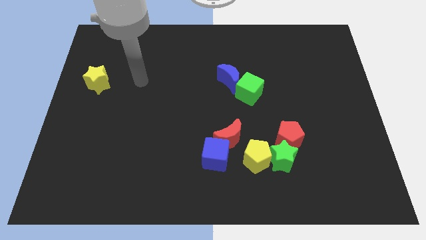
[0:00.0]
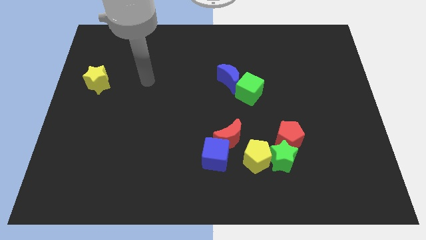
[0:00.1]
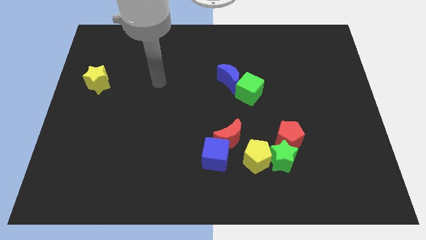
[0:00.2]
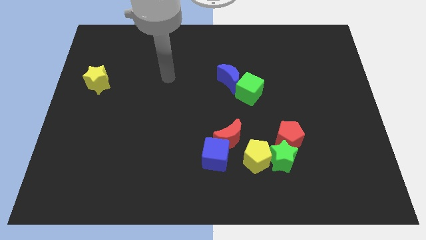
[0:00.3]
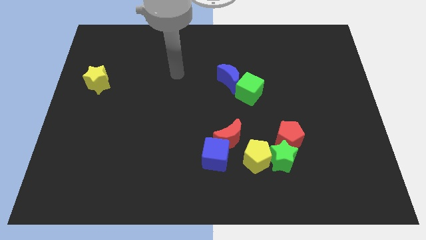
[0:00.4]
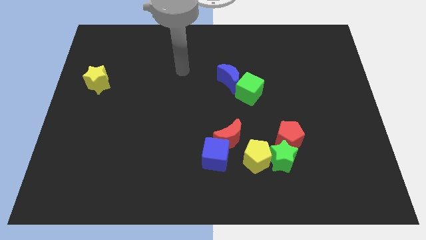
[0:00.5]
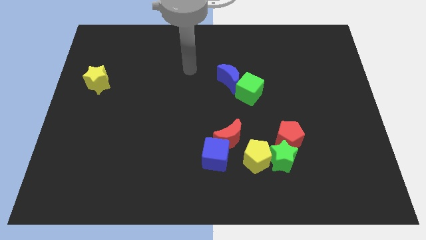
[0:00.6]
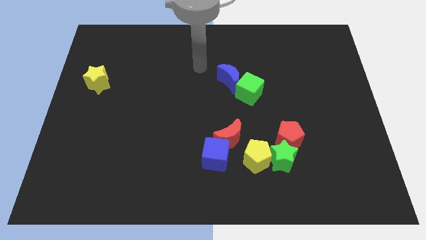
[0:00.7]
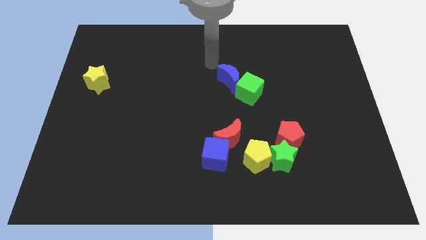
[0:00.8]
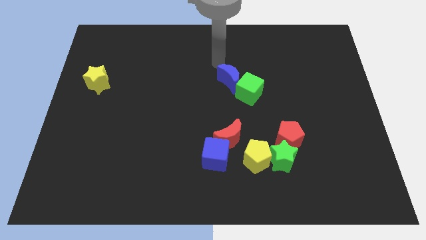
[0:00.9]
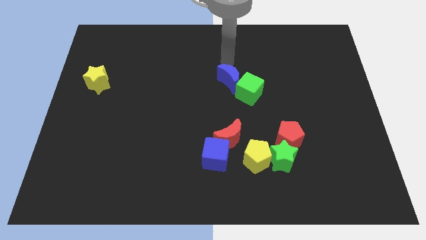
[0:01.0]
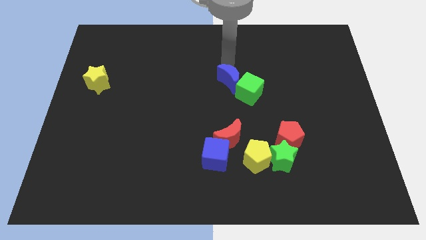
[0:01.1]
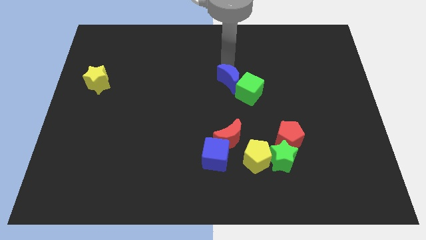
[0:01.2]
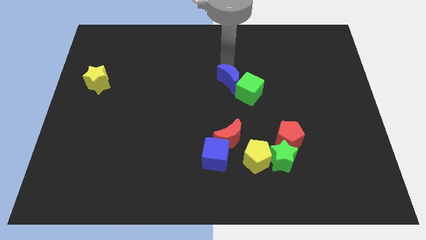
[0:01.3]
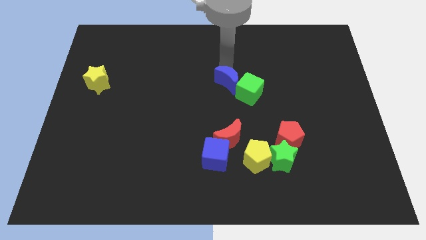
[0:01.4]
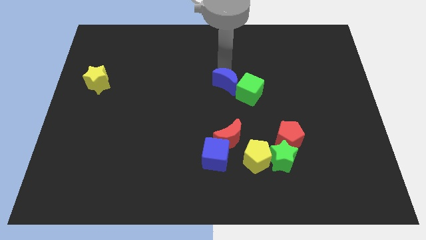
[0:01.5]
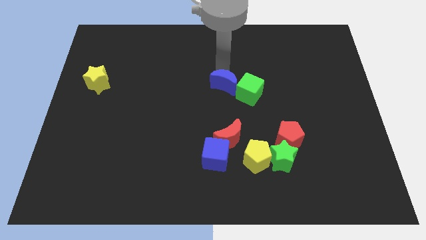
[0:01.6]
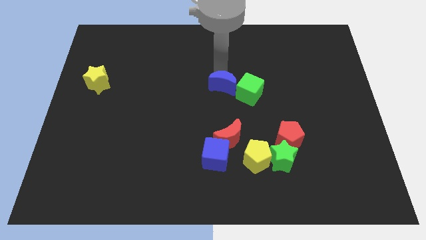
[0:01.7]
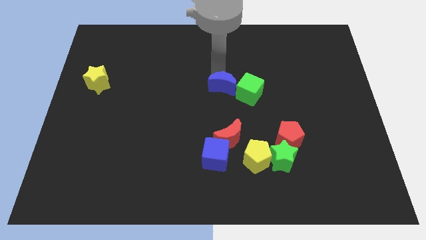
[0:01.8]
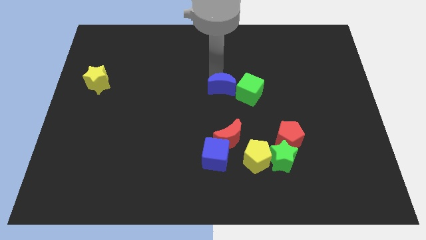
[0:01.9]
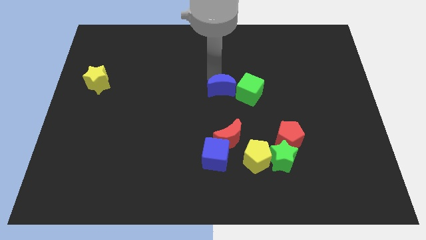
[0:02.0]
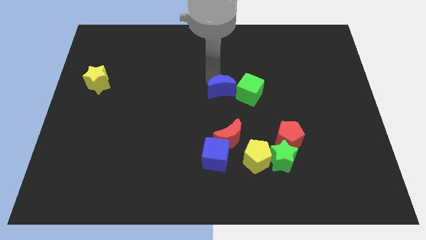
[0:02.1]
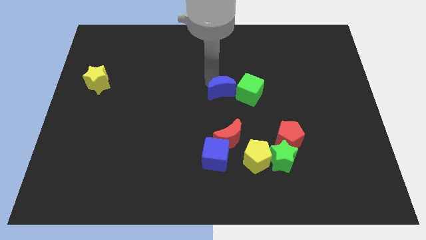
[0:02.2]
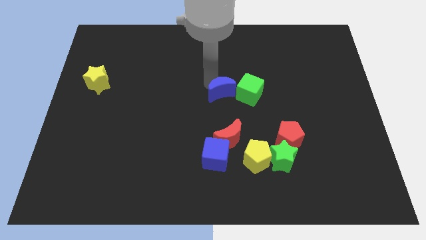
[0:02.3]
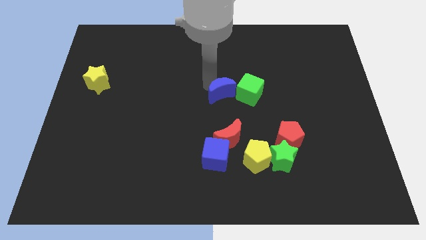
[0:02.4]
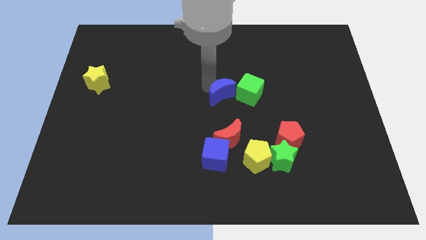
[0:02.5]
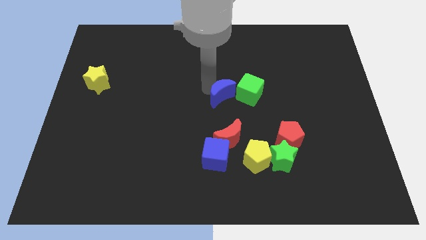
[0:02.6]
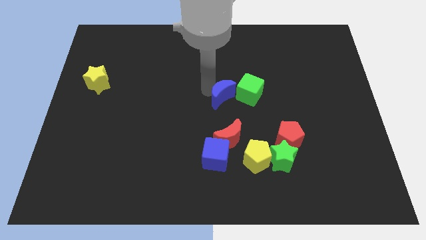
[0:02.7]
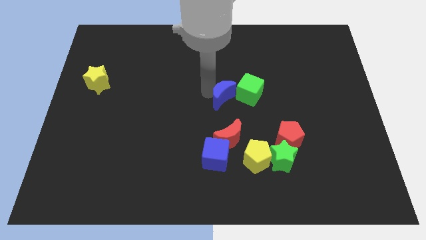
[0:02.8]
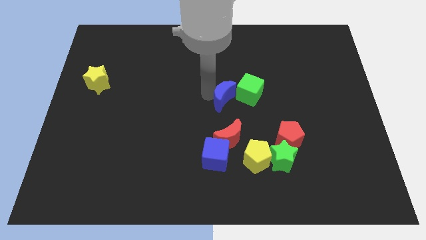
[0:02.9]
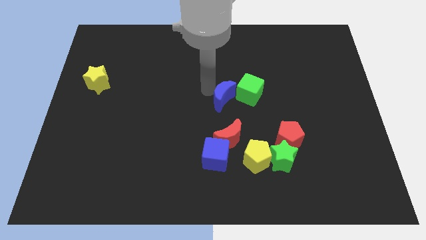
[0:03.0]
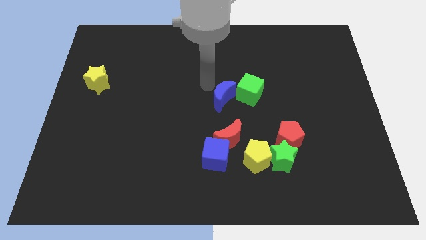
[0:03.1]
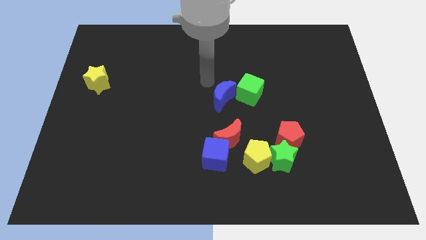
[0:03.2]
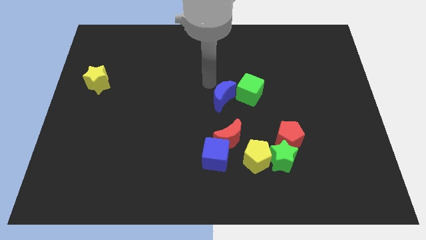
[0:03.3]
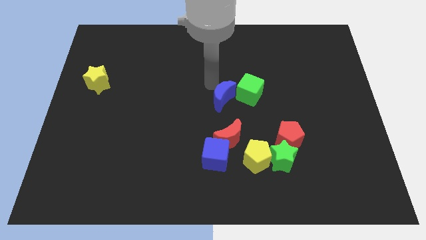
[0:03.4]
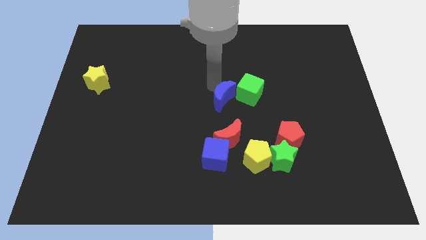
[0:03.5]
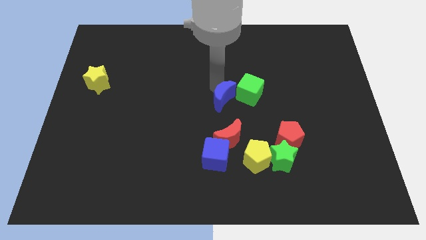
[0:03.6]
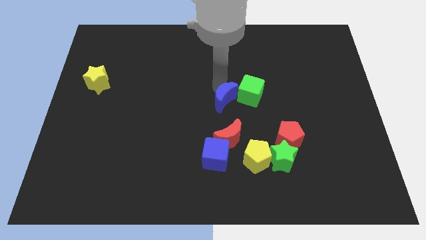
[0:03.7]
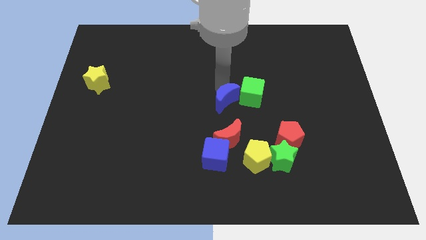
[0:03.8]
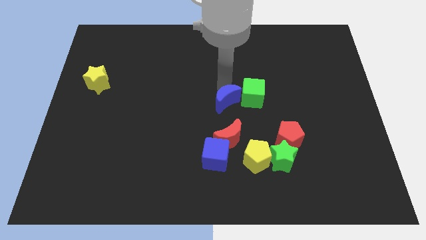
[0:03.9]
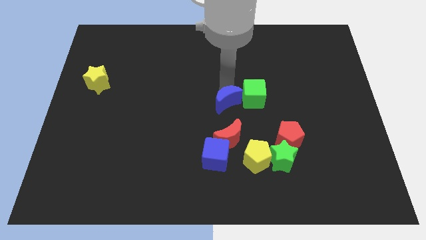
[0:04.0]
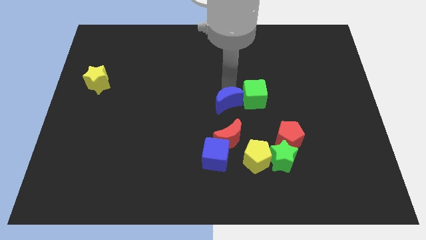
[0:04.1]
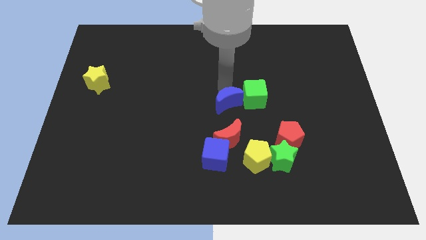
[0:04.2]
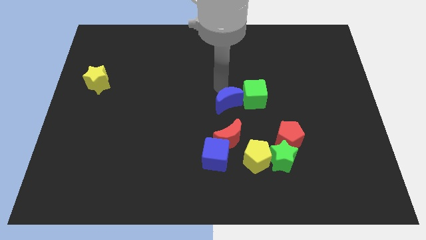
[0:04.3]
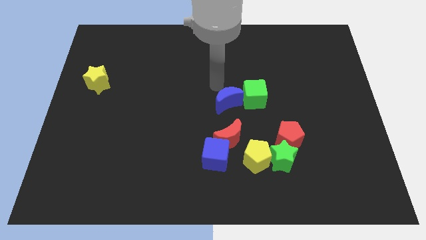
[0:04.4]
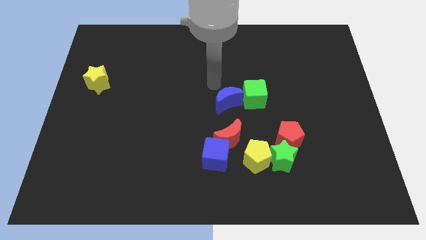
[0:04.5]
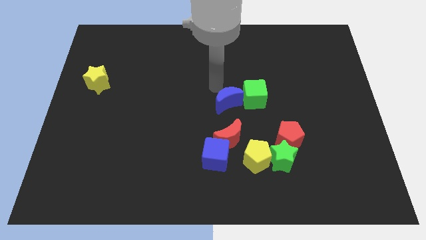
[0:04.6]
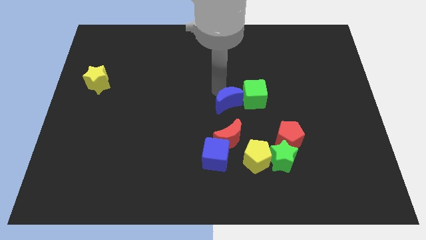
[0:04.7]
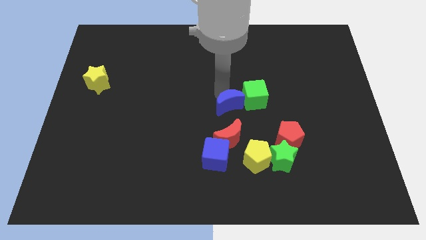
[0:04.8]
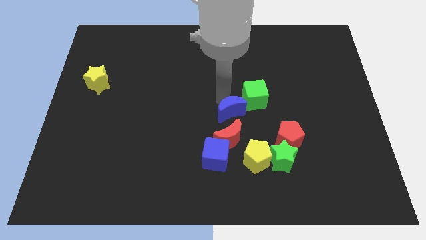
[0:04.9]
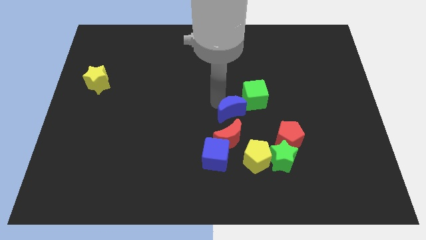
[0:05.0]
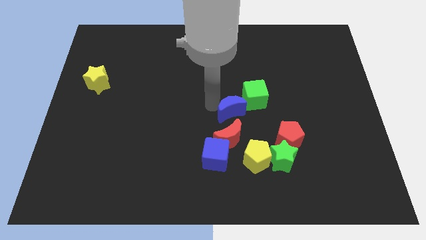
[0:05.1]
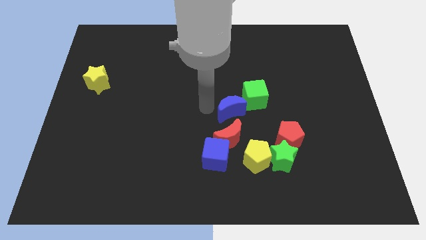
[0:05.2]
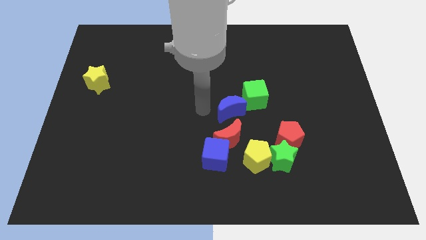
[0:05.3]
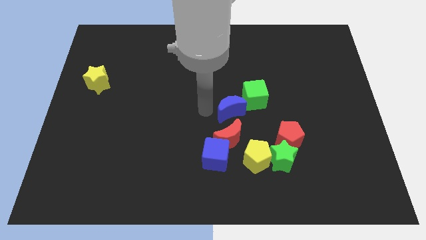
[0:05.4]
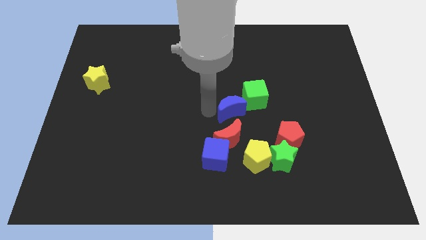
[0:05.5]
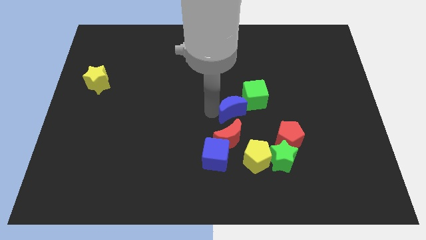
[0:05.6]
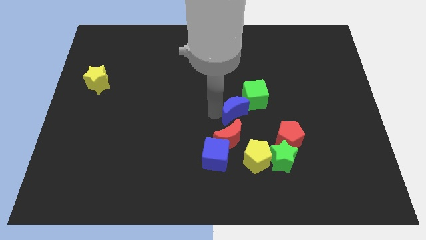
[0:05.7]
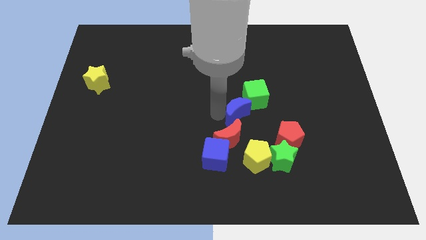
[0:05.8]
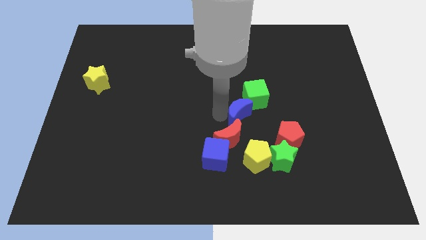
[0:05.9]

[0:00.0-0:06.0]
slightly push the blue moon diagonally down and to the right

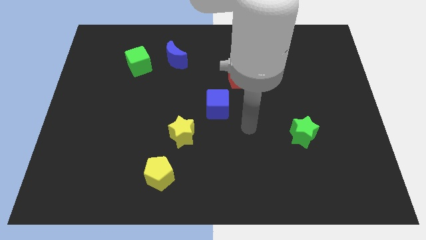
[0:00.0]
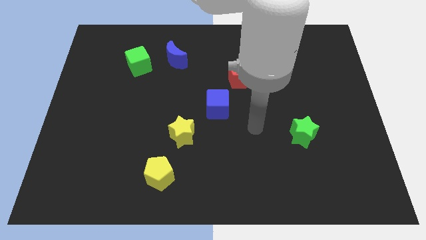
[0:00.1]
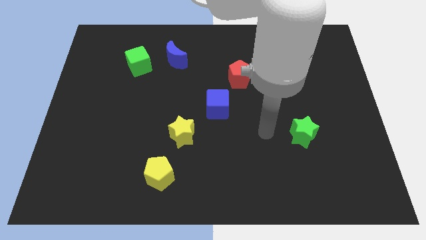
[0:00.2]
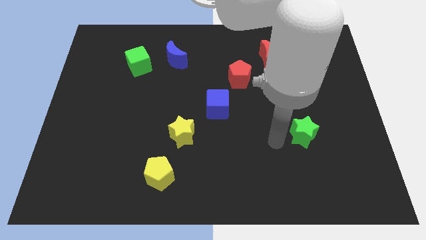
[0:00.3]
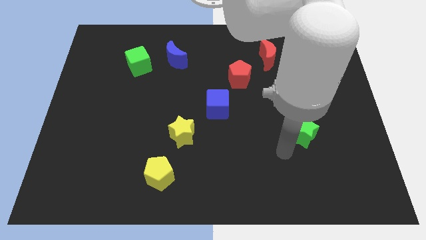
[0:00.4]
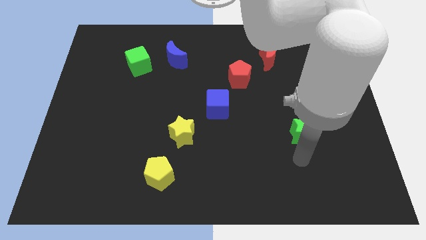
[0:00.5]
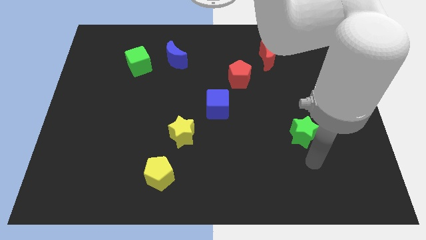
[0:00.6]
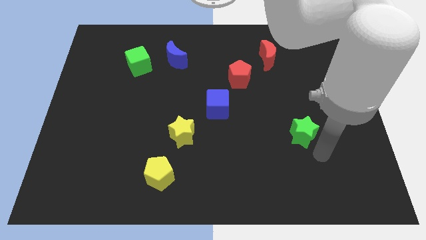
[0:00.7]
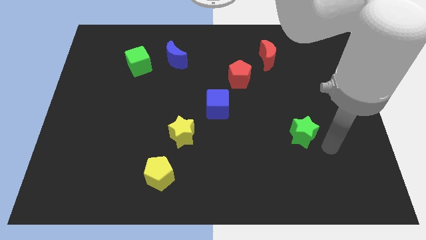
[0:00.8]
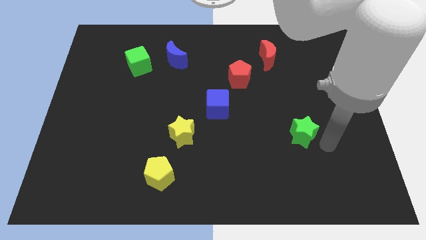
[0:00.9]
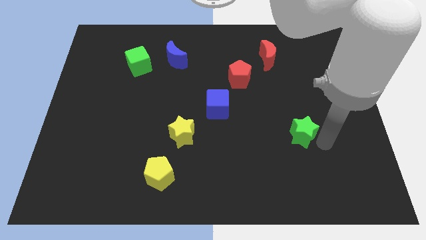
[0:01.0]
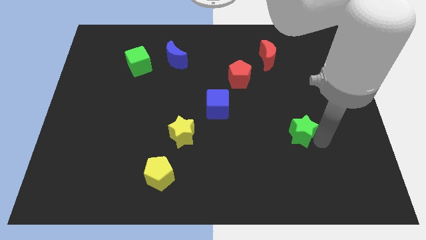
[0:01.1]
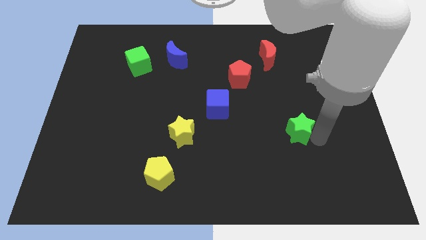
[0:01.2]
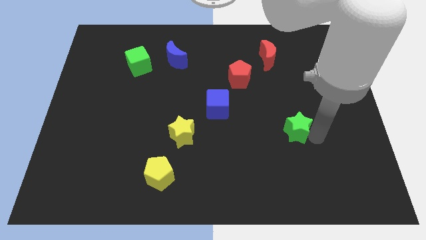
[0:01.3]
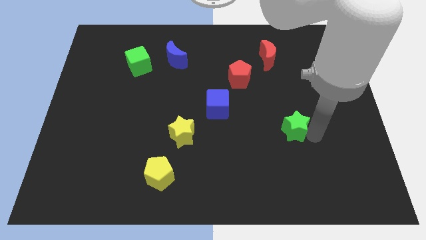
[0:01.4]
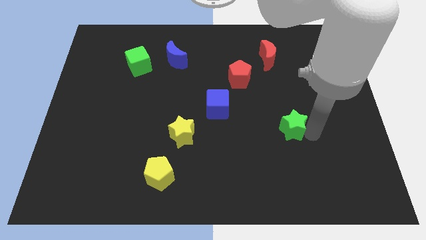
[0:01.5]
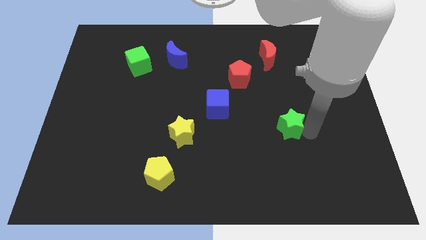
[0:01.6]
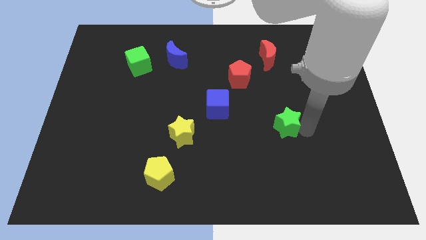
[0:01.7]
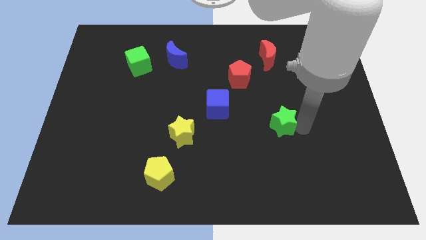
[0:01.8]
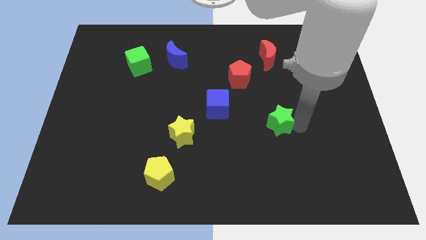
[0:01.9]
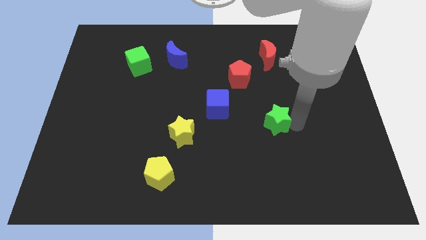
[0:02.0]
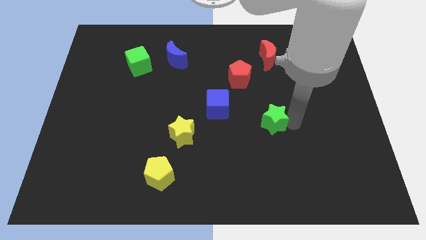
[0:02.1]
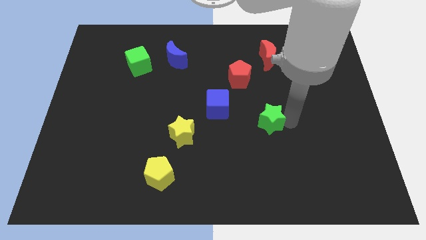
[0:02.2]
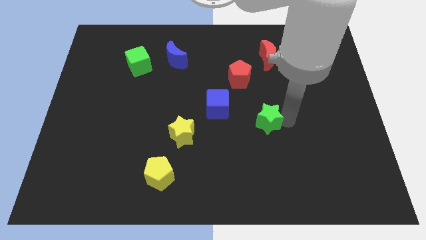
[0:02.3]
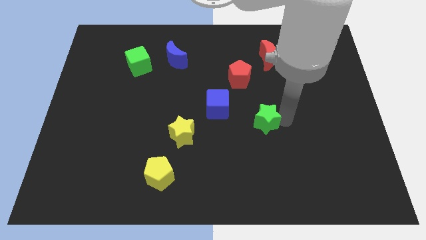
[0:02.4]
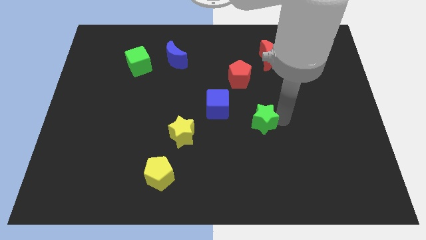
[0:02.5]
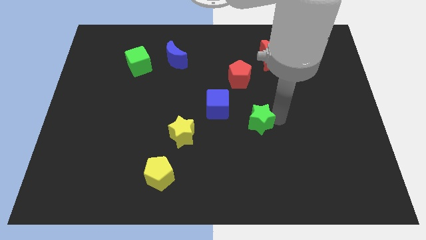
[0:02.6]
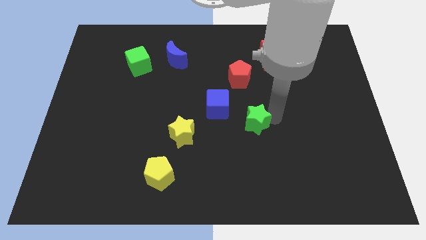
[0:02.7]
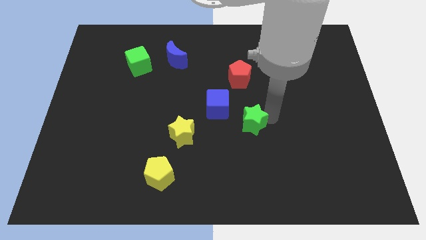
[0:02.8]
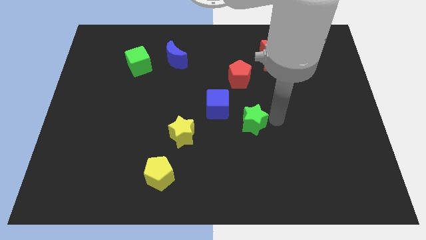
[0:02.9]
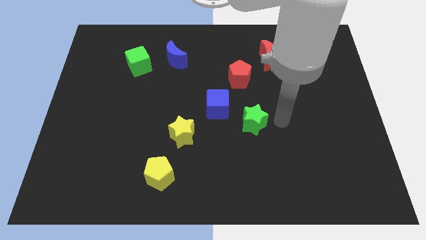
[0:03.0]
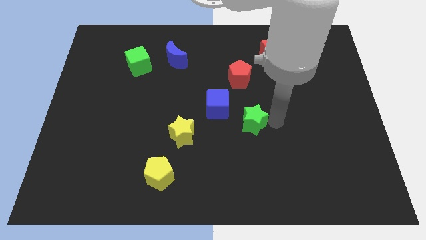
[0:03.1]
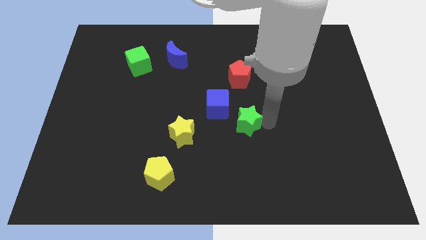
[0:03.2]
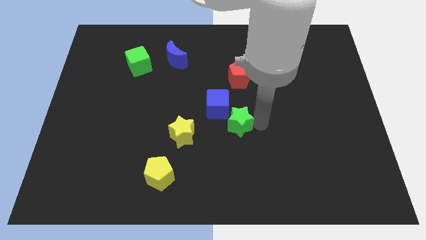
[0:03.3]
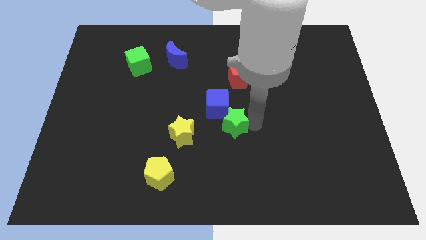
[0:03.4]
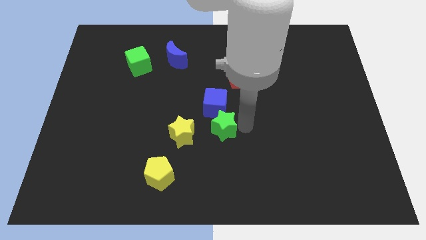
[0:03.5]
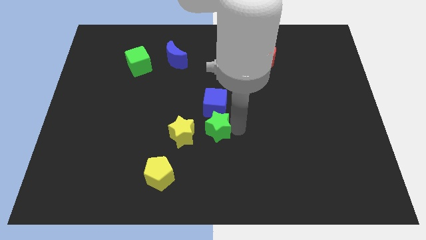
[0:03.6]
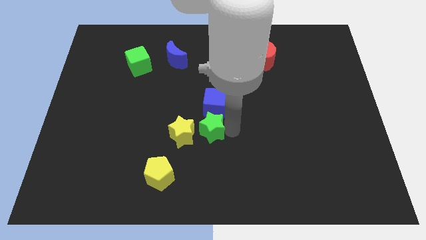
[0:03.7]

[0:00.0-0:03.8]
slide the green star to the left
